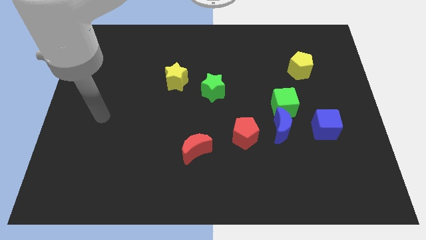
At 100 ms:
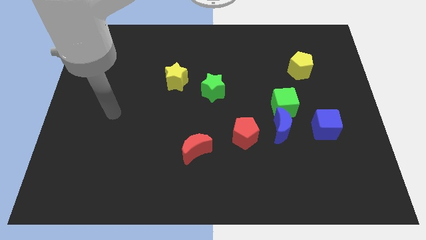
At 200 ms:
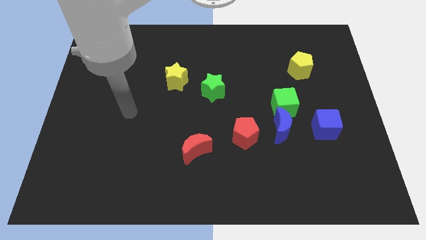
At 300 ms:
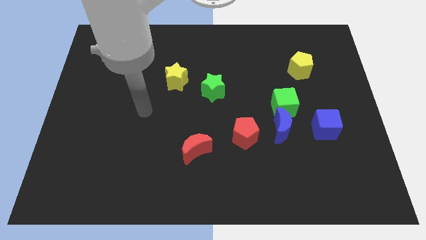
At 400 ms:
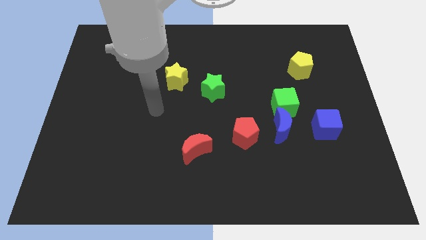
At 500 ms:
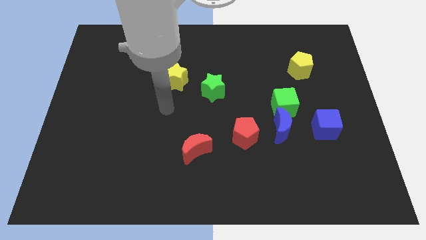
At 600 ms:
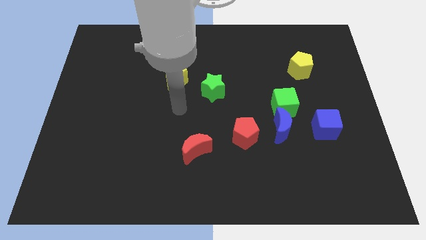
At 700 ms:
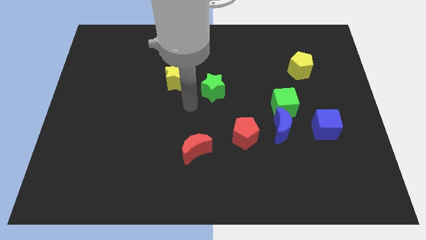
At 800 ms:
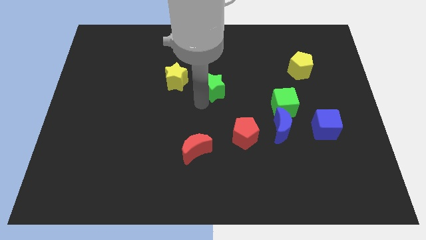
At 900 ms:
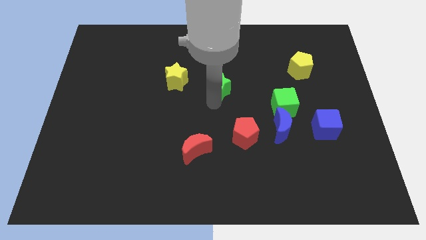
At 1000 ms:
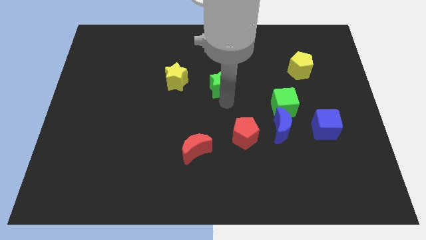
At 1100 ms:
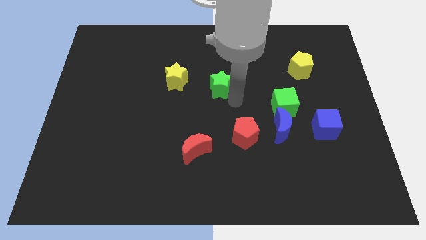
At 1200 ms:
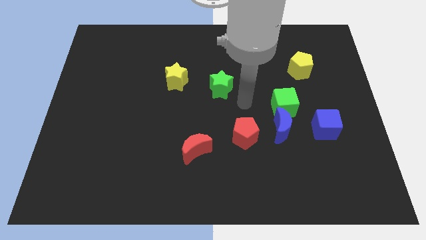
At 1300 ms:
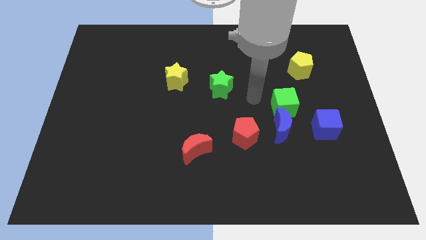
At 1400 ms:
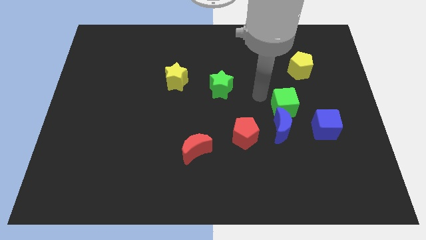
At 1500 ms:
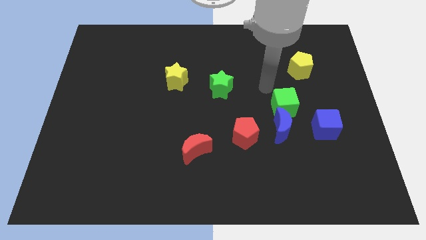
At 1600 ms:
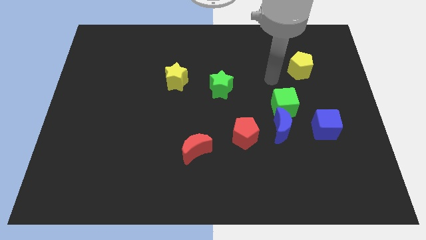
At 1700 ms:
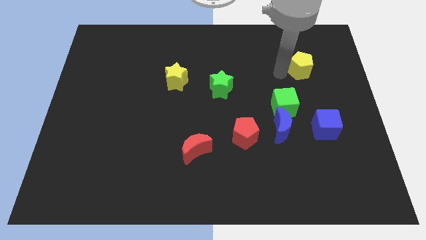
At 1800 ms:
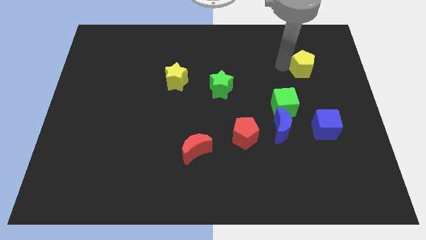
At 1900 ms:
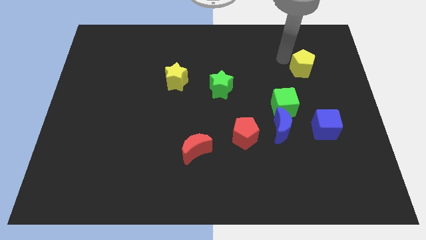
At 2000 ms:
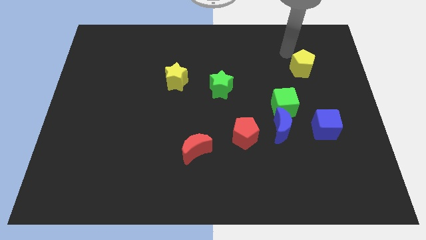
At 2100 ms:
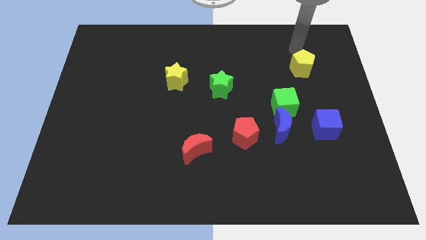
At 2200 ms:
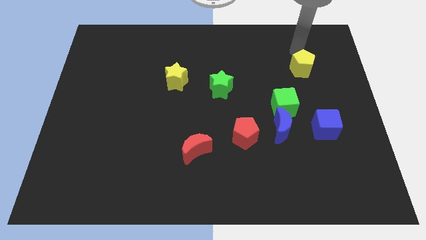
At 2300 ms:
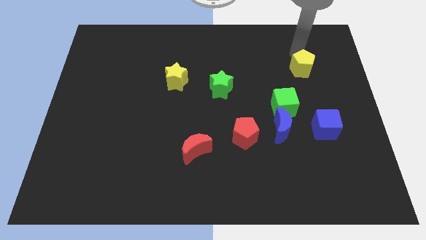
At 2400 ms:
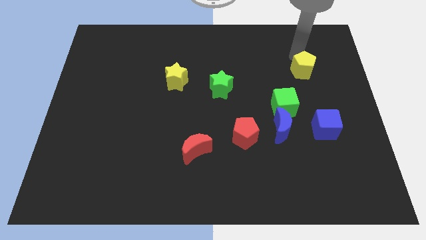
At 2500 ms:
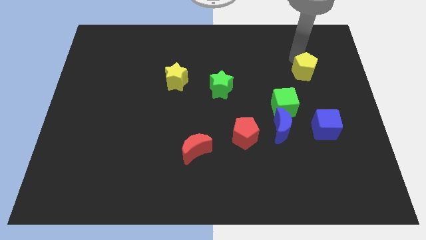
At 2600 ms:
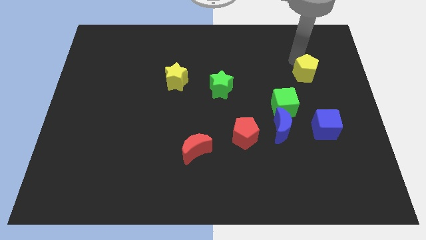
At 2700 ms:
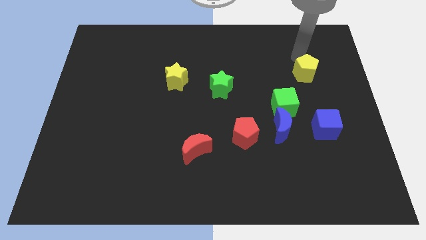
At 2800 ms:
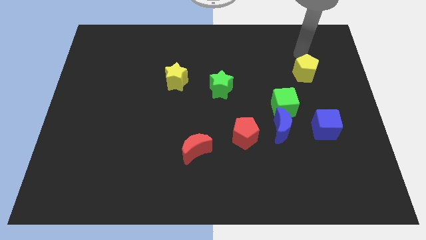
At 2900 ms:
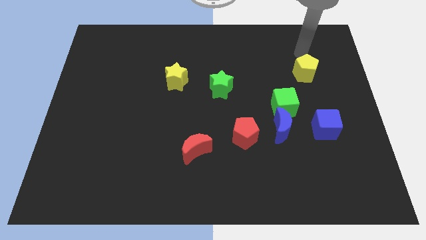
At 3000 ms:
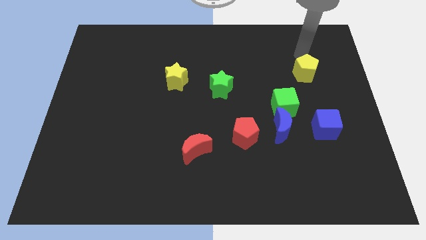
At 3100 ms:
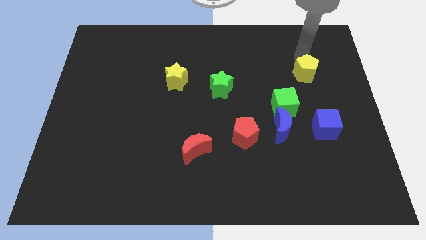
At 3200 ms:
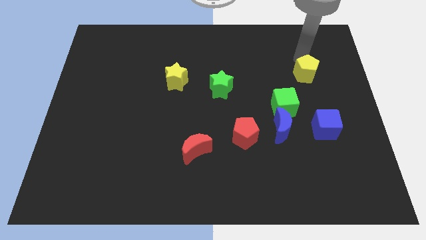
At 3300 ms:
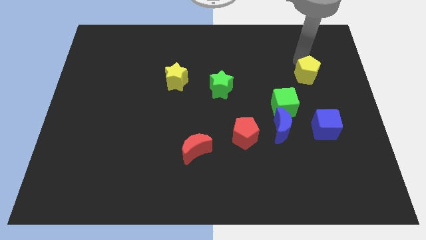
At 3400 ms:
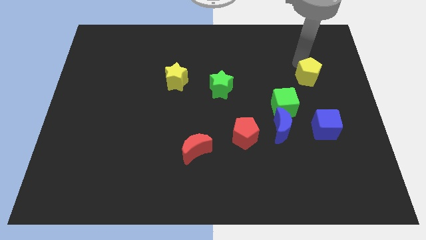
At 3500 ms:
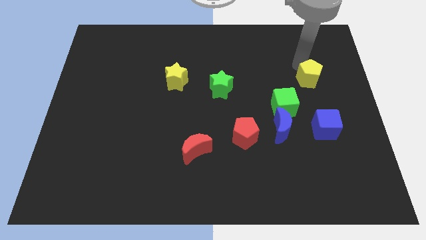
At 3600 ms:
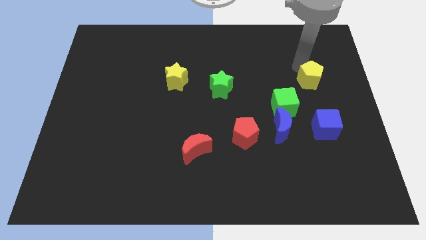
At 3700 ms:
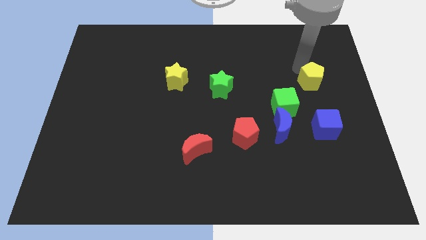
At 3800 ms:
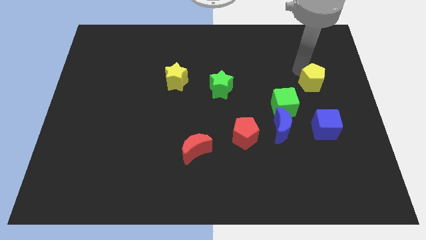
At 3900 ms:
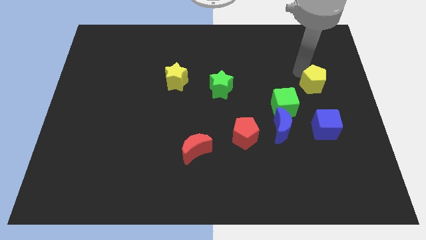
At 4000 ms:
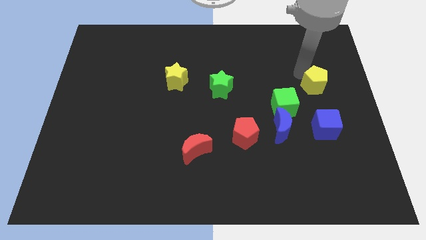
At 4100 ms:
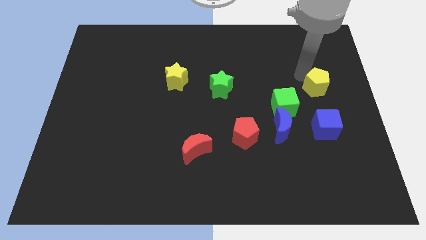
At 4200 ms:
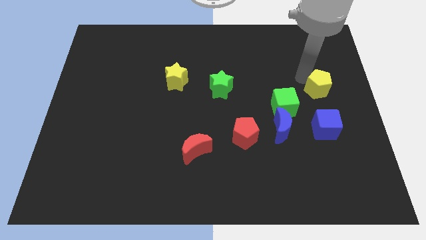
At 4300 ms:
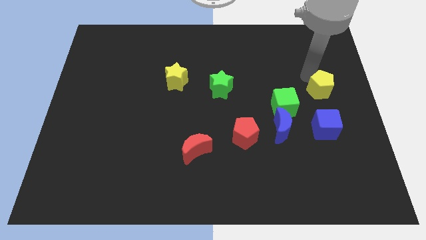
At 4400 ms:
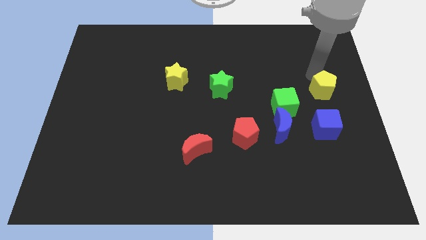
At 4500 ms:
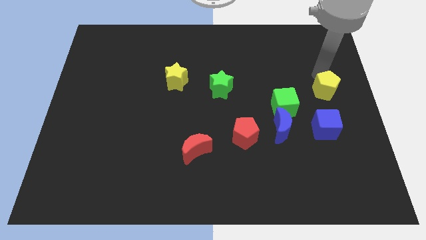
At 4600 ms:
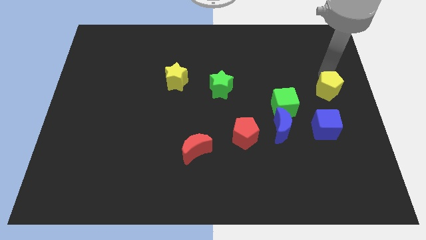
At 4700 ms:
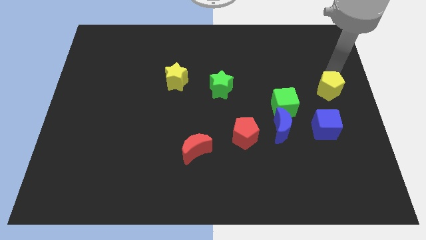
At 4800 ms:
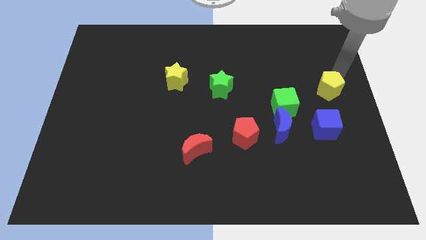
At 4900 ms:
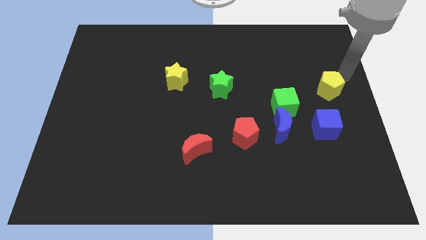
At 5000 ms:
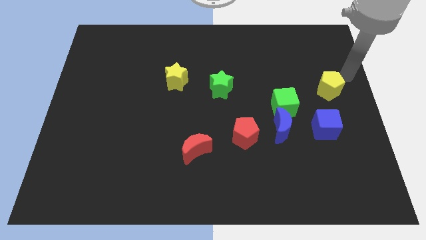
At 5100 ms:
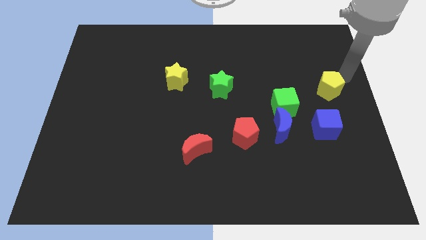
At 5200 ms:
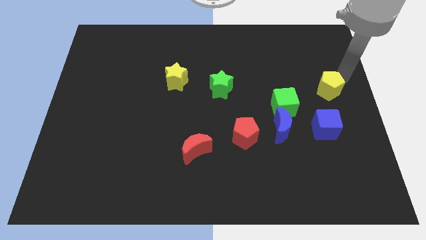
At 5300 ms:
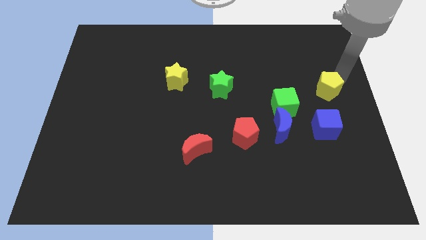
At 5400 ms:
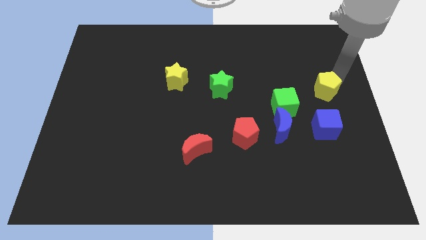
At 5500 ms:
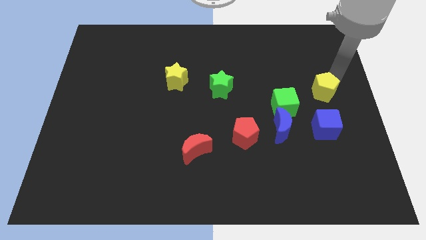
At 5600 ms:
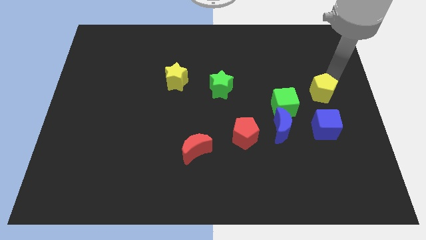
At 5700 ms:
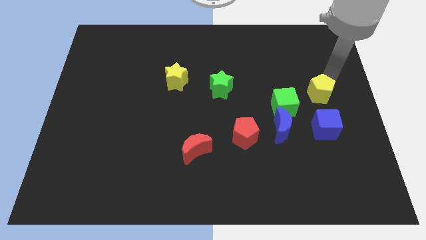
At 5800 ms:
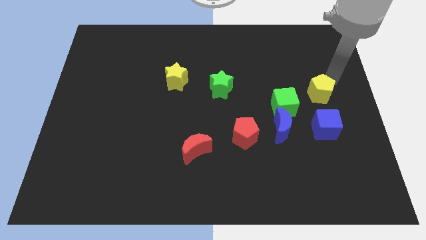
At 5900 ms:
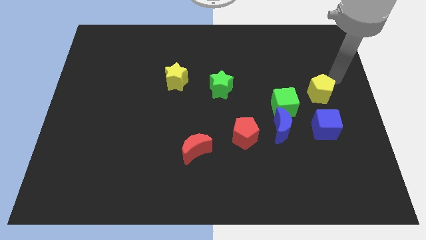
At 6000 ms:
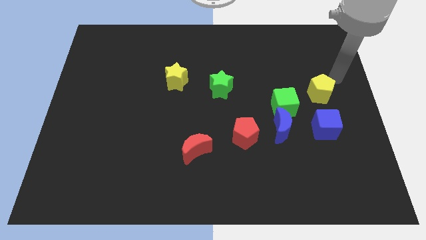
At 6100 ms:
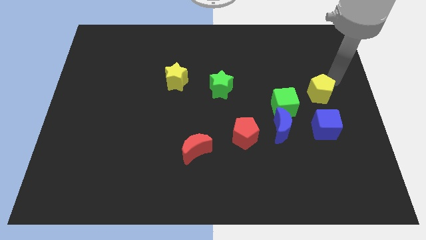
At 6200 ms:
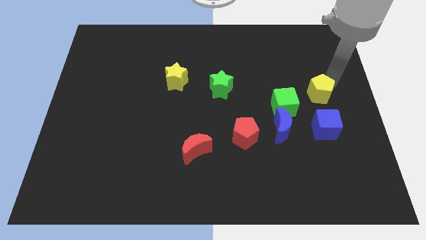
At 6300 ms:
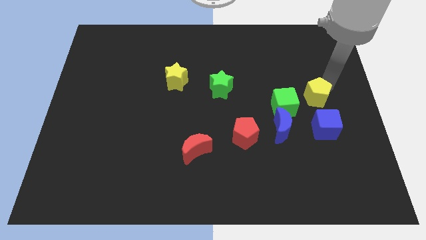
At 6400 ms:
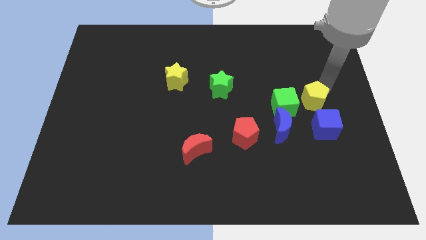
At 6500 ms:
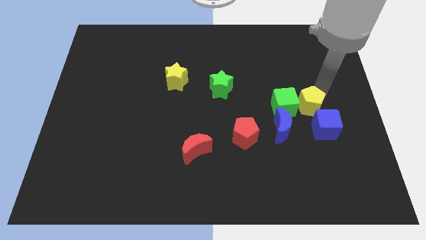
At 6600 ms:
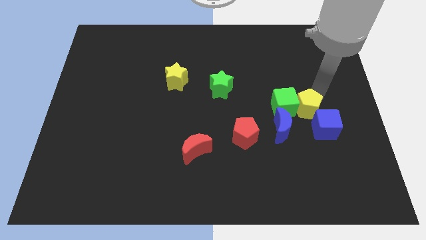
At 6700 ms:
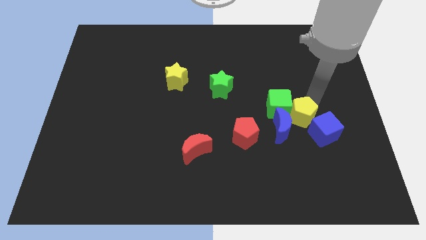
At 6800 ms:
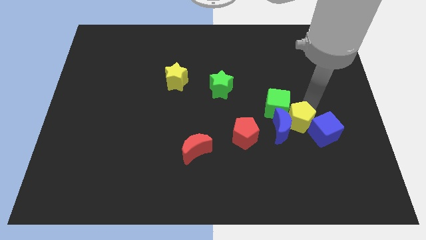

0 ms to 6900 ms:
put the yellow pentagon close to the blue moon

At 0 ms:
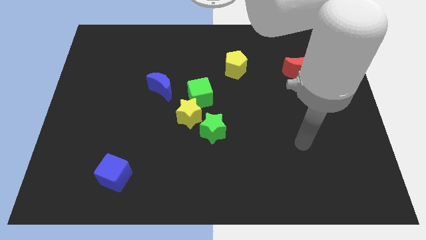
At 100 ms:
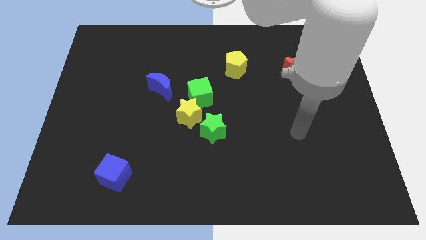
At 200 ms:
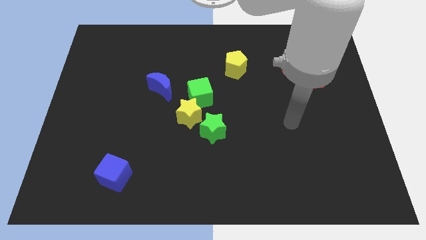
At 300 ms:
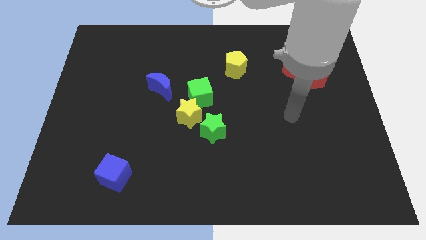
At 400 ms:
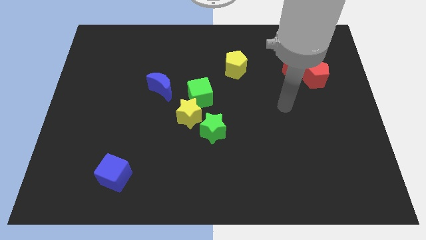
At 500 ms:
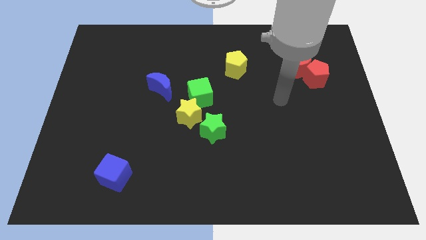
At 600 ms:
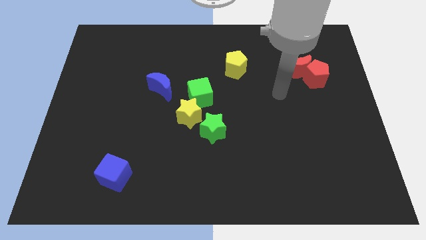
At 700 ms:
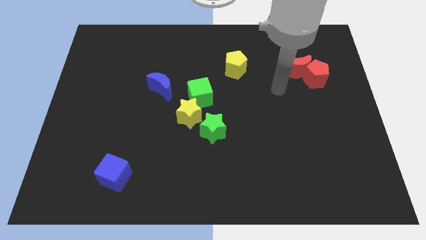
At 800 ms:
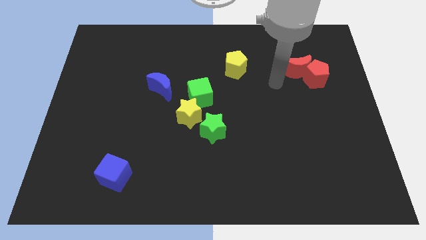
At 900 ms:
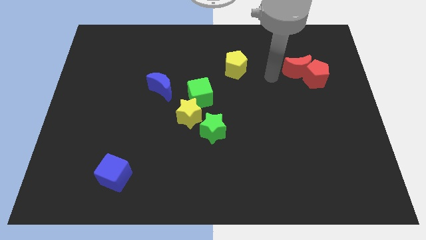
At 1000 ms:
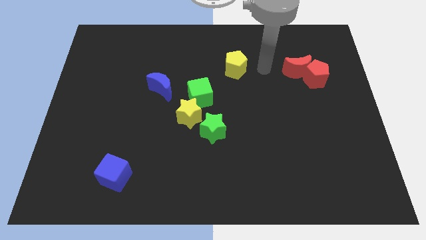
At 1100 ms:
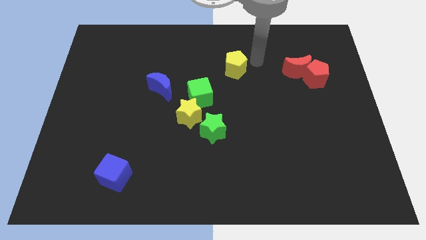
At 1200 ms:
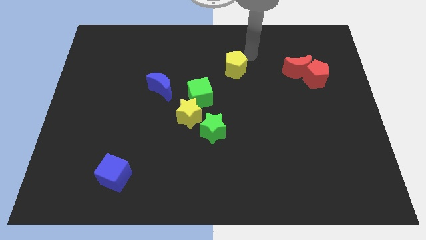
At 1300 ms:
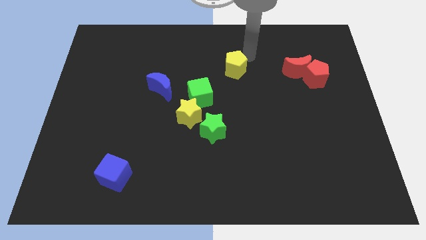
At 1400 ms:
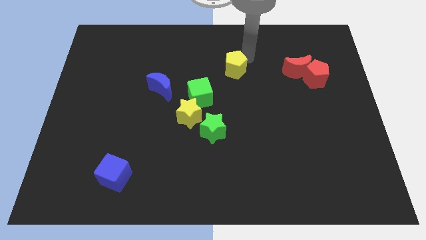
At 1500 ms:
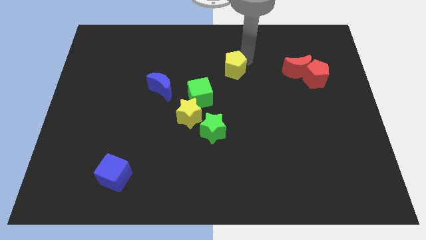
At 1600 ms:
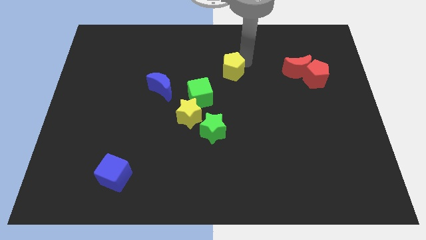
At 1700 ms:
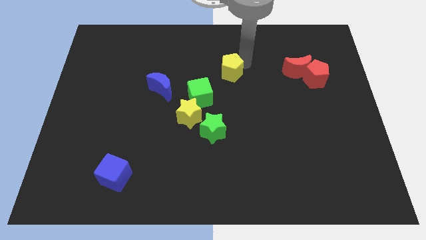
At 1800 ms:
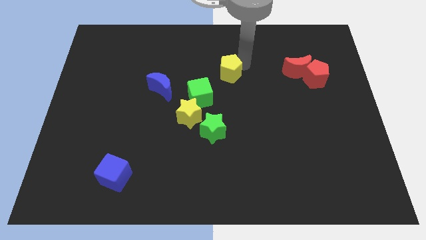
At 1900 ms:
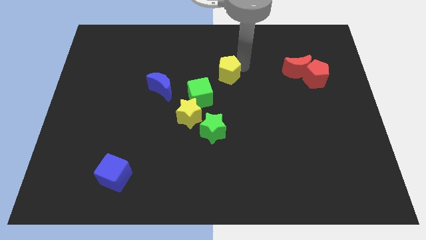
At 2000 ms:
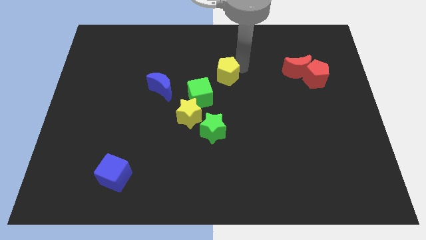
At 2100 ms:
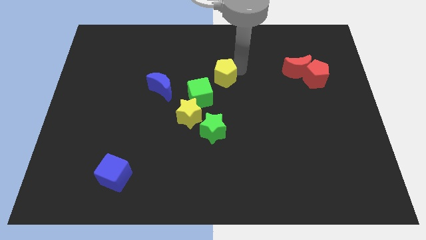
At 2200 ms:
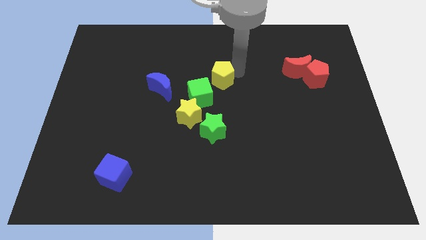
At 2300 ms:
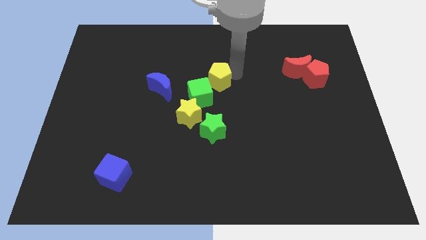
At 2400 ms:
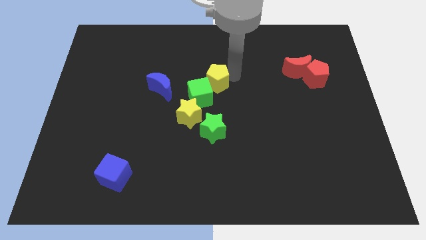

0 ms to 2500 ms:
push the yellow pentagon next to the green cube
